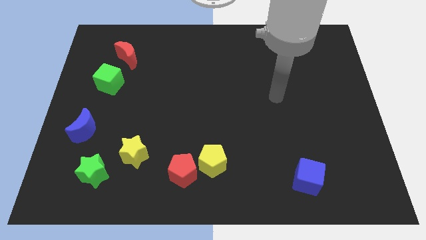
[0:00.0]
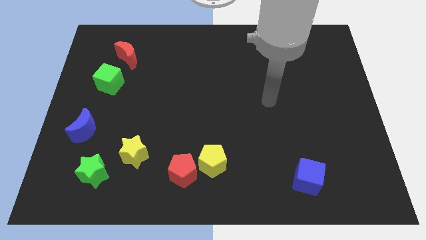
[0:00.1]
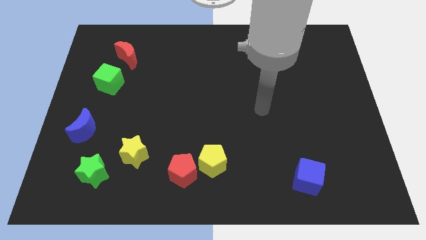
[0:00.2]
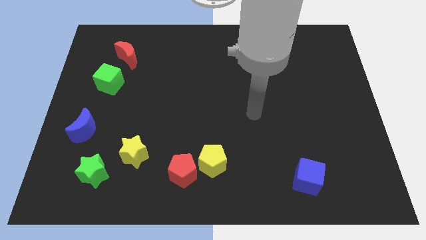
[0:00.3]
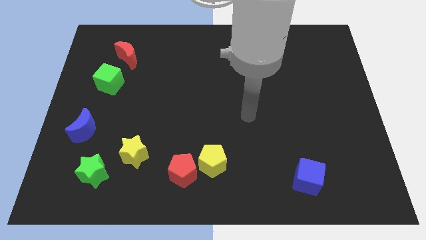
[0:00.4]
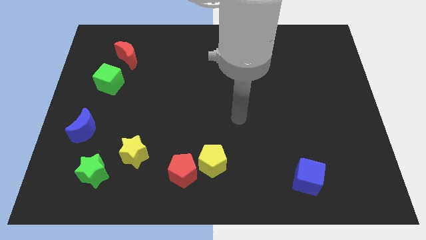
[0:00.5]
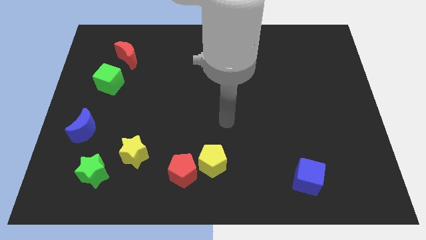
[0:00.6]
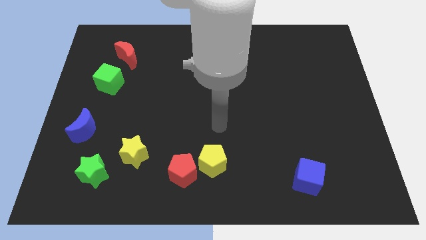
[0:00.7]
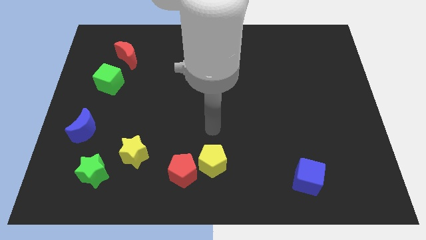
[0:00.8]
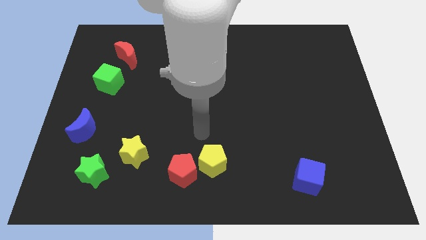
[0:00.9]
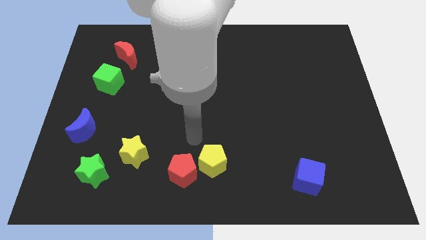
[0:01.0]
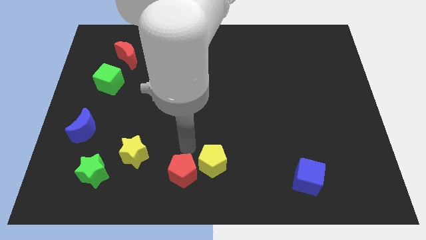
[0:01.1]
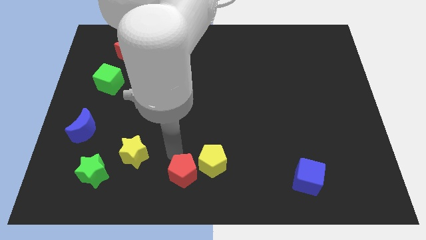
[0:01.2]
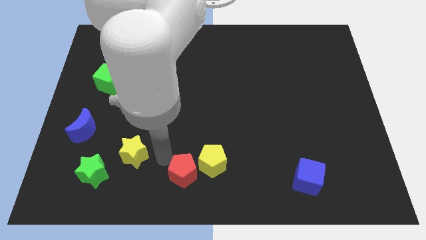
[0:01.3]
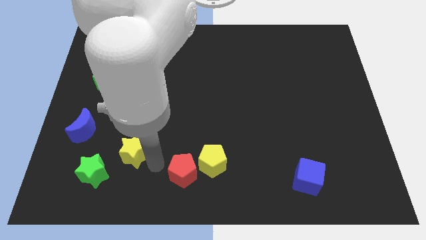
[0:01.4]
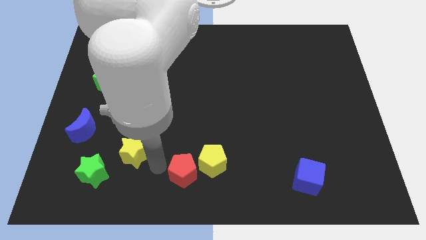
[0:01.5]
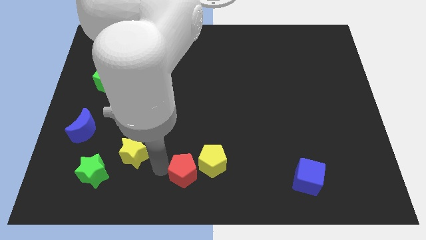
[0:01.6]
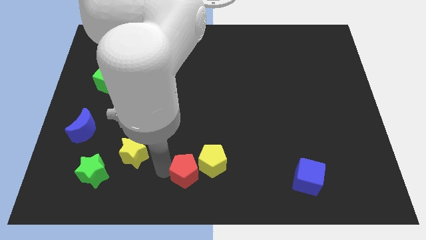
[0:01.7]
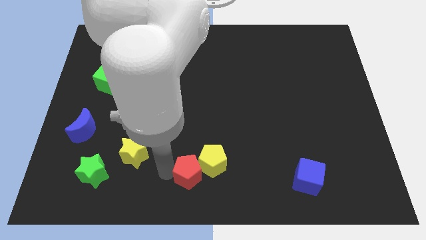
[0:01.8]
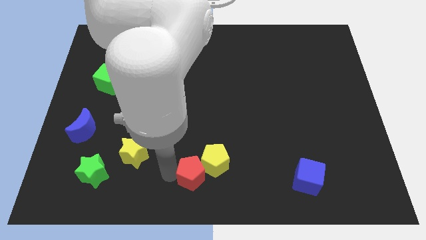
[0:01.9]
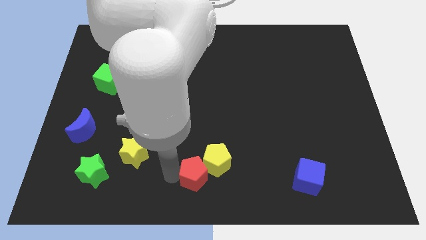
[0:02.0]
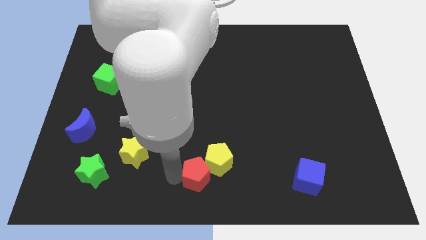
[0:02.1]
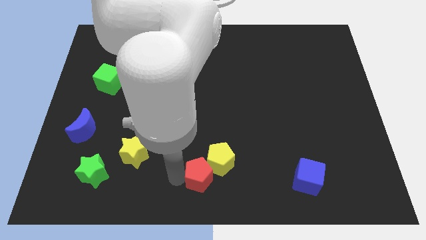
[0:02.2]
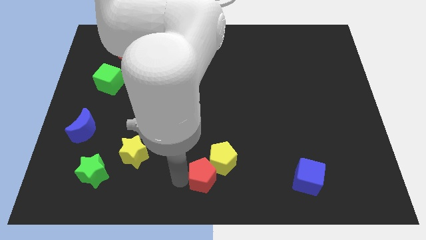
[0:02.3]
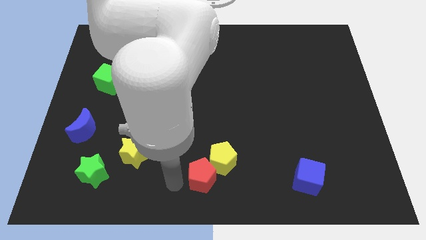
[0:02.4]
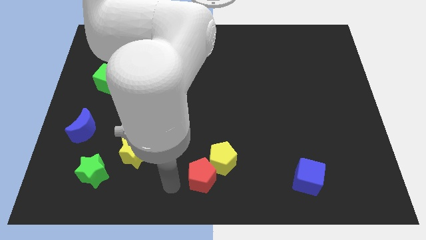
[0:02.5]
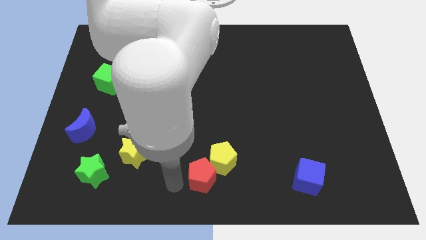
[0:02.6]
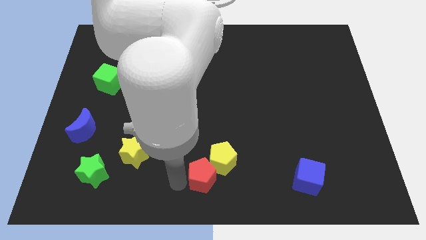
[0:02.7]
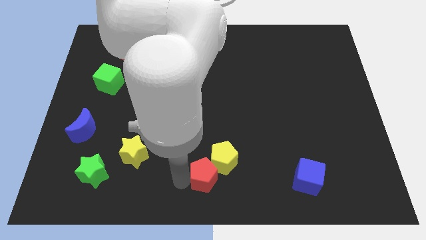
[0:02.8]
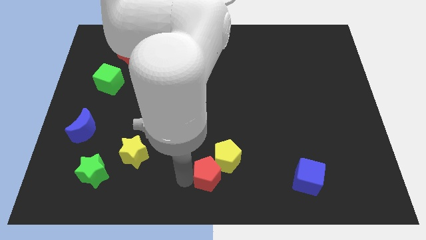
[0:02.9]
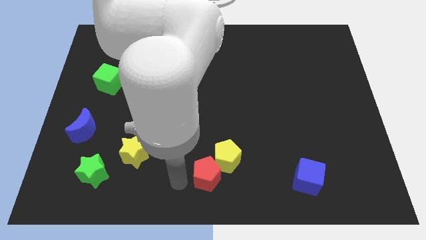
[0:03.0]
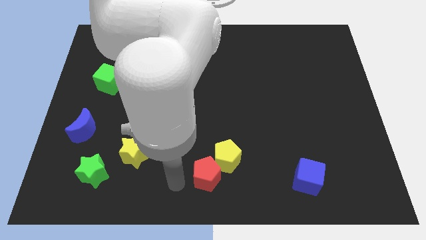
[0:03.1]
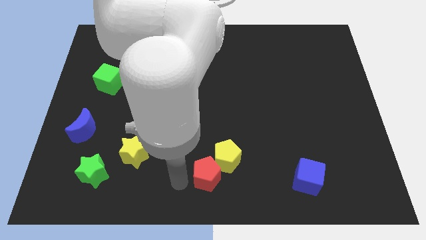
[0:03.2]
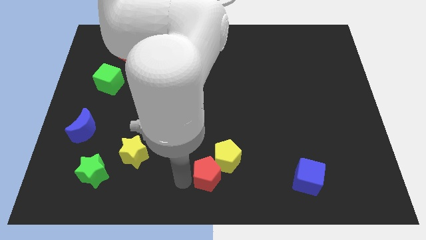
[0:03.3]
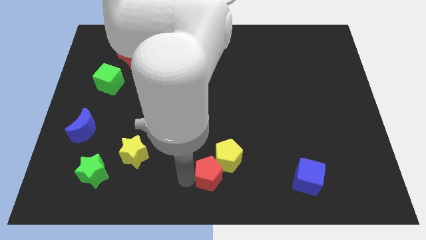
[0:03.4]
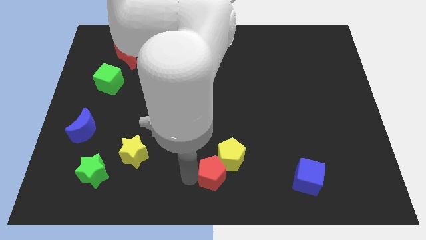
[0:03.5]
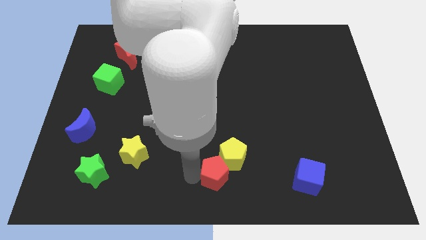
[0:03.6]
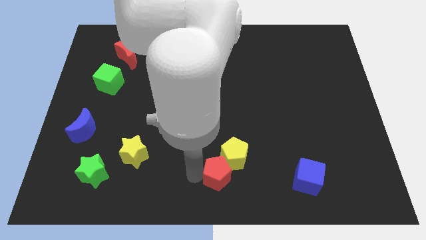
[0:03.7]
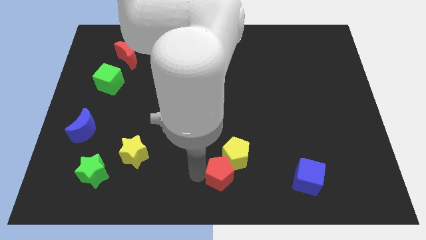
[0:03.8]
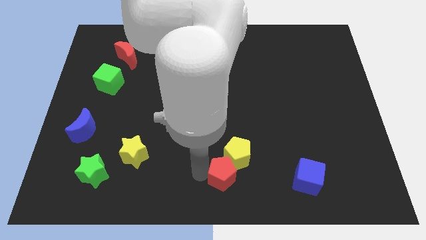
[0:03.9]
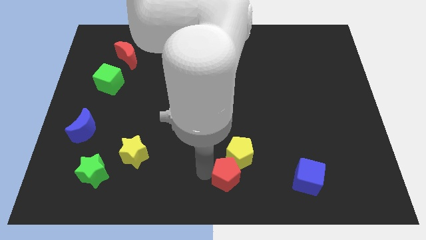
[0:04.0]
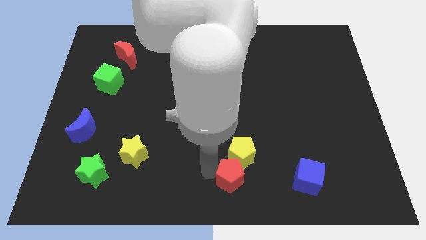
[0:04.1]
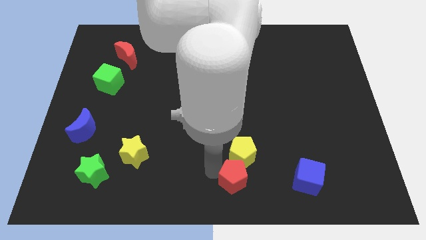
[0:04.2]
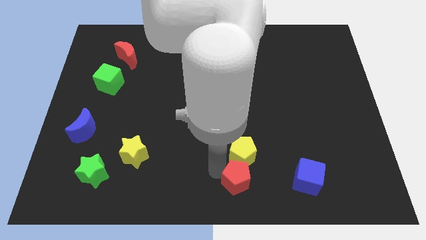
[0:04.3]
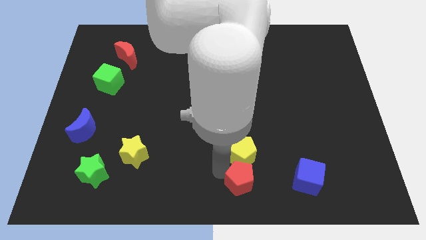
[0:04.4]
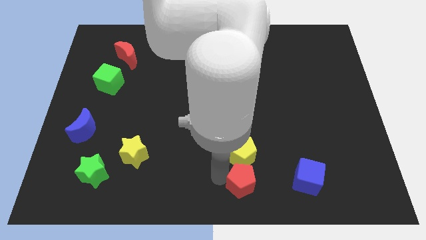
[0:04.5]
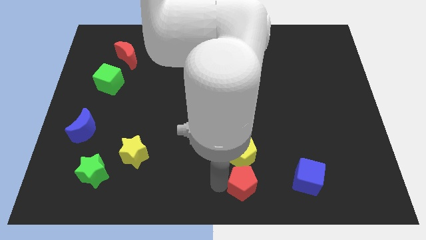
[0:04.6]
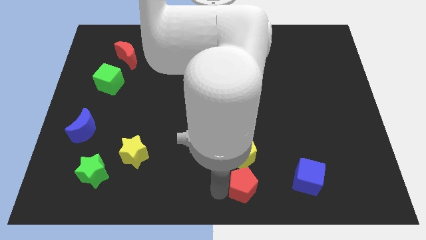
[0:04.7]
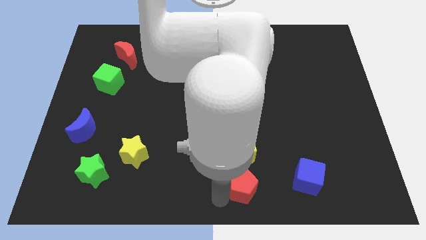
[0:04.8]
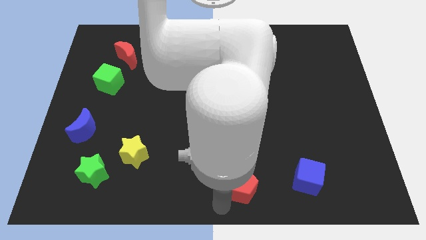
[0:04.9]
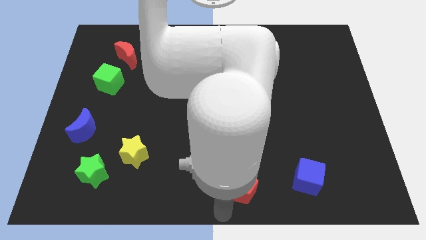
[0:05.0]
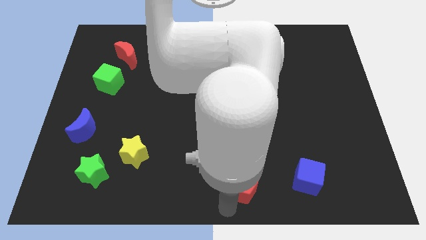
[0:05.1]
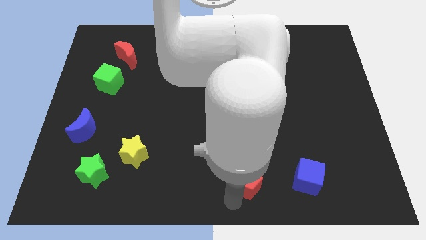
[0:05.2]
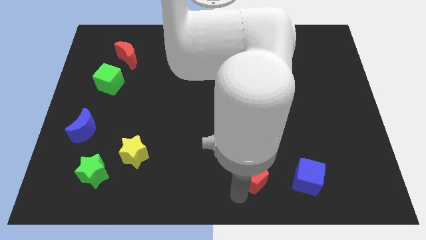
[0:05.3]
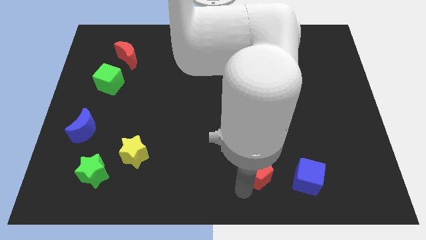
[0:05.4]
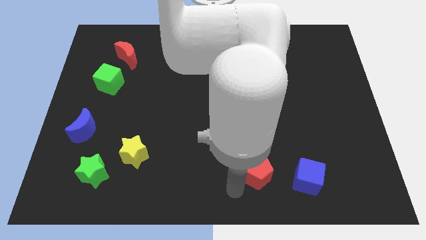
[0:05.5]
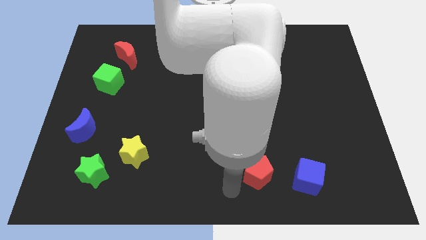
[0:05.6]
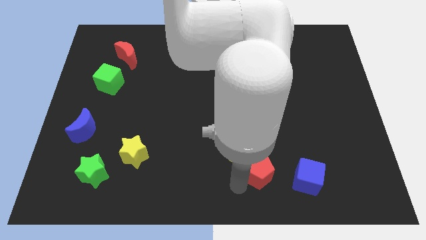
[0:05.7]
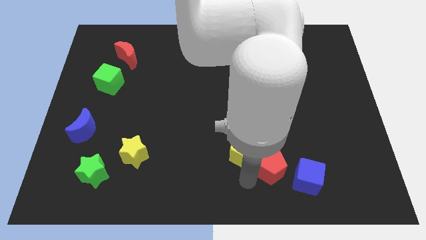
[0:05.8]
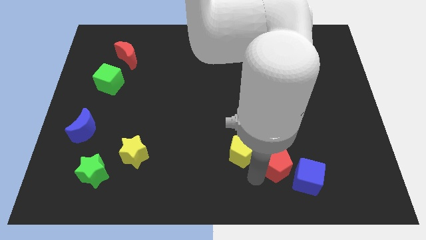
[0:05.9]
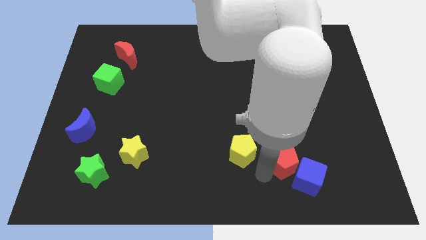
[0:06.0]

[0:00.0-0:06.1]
move the red pentagon to the right

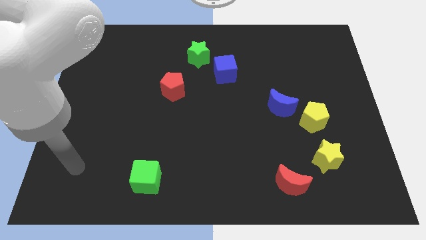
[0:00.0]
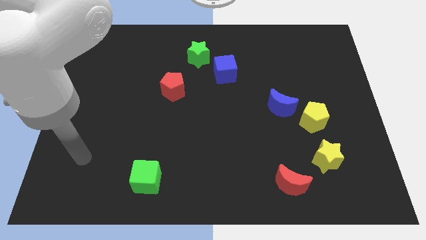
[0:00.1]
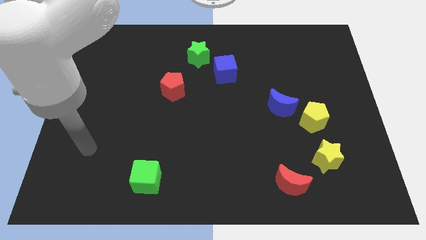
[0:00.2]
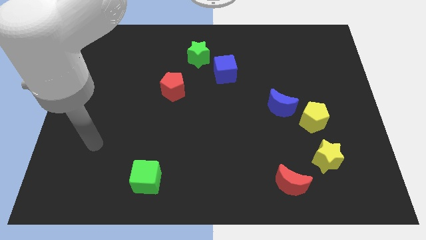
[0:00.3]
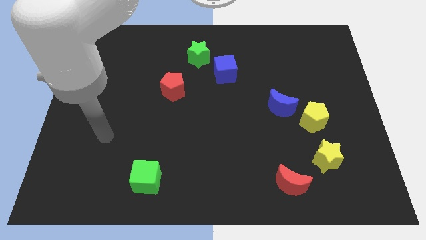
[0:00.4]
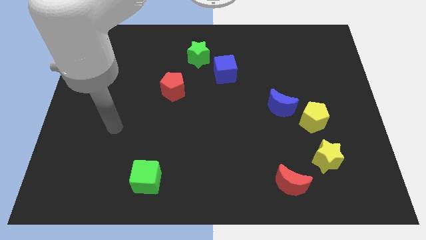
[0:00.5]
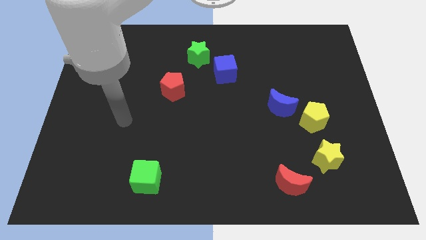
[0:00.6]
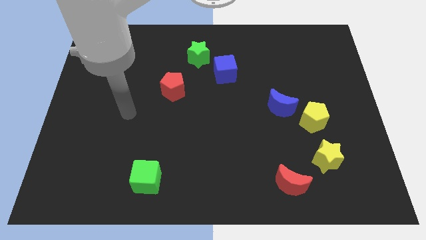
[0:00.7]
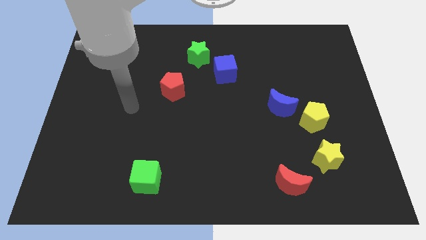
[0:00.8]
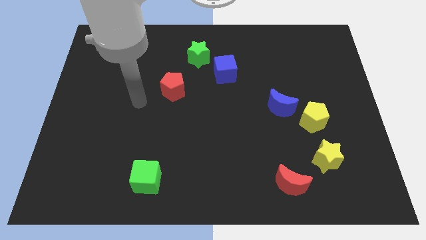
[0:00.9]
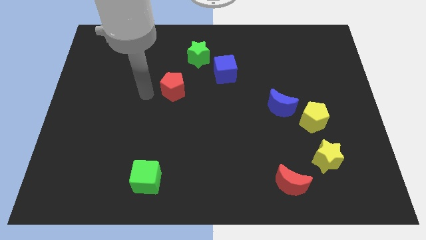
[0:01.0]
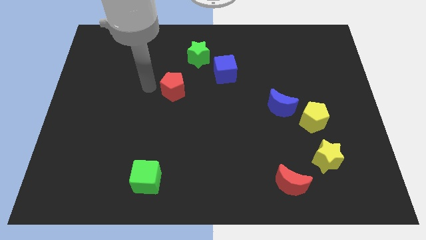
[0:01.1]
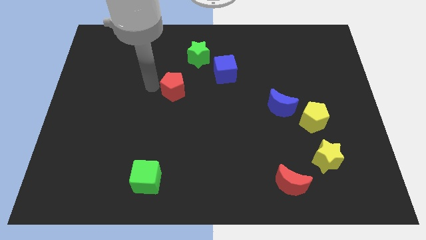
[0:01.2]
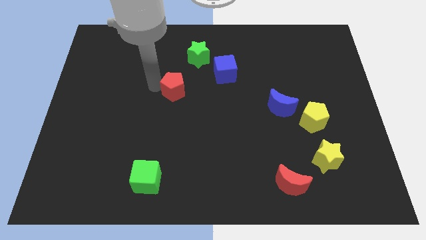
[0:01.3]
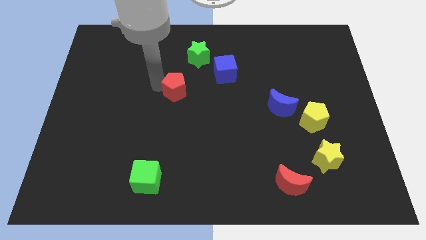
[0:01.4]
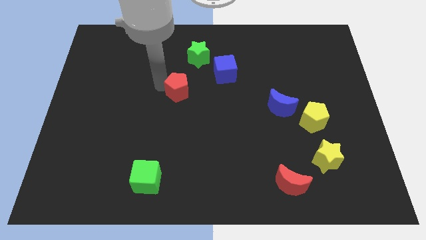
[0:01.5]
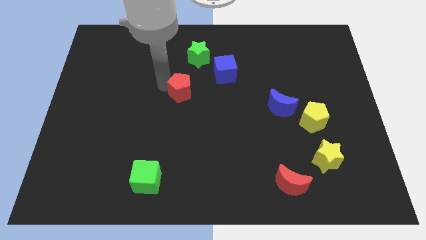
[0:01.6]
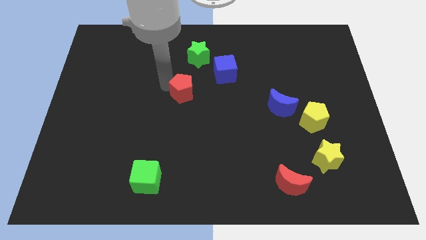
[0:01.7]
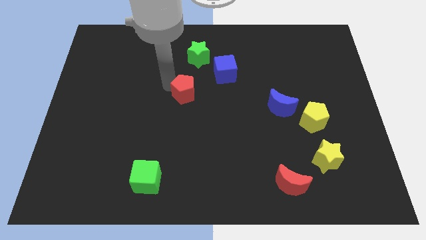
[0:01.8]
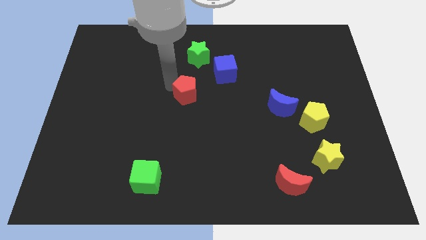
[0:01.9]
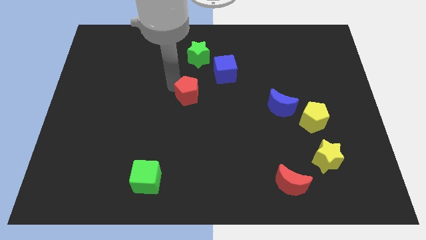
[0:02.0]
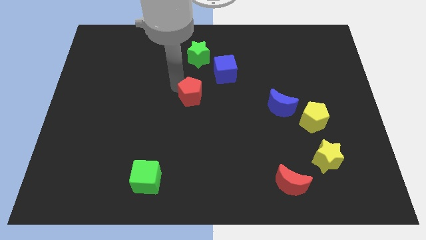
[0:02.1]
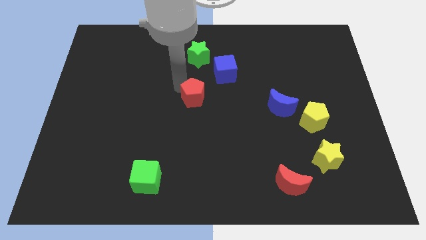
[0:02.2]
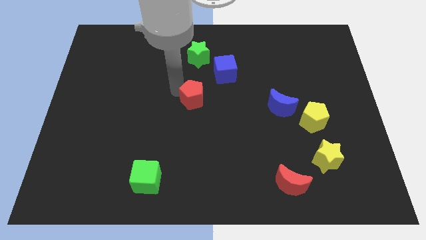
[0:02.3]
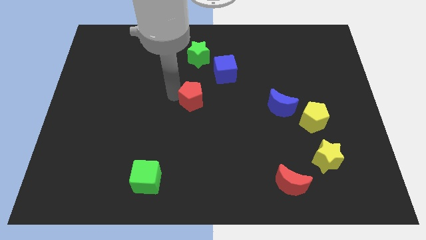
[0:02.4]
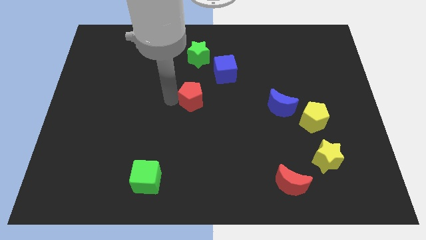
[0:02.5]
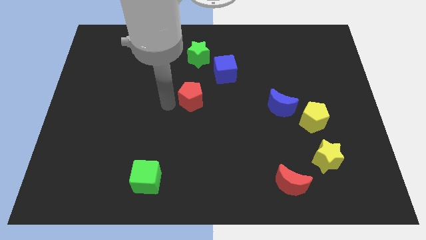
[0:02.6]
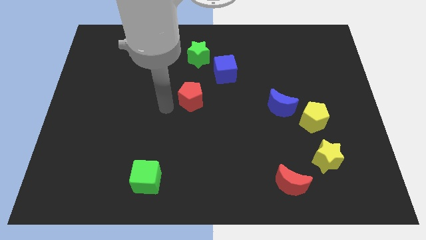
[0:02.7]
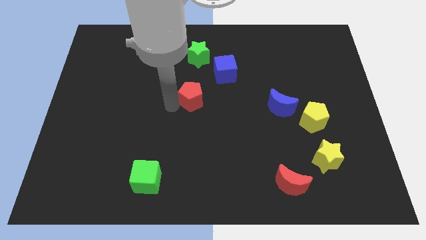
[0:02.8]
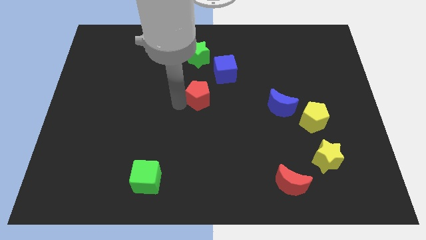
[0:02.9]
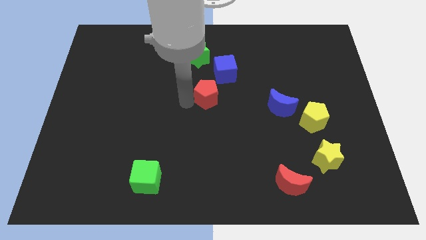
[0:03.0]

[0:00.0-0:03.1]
slide the red pentagon right slightly
